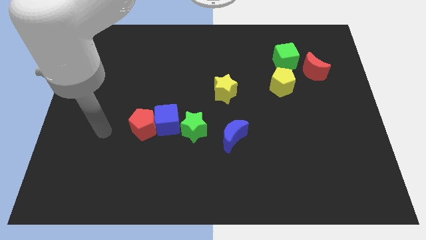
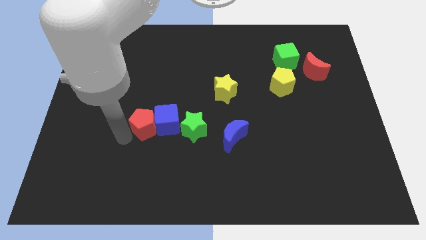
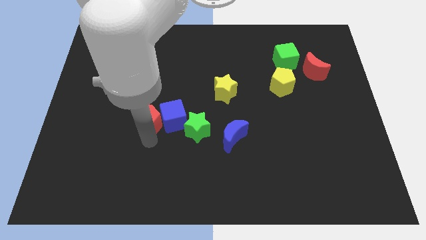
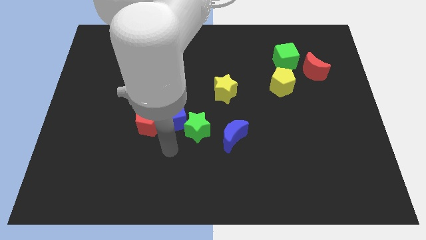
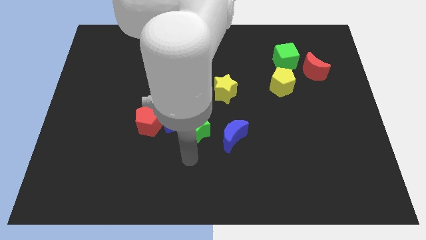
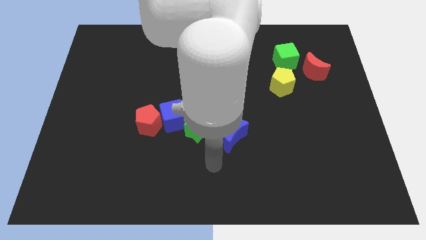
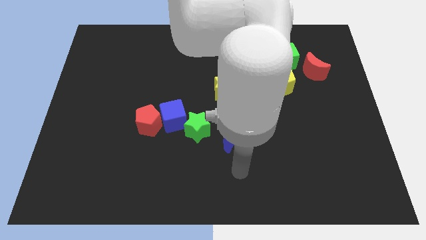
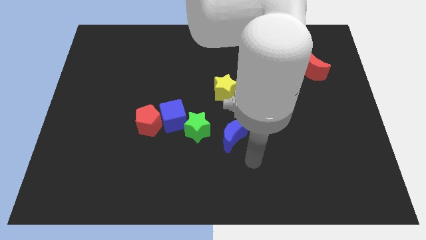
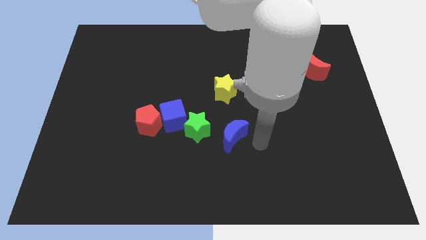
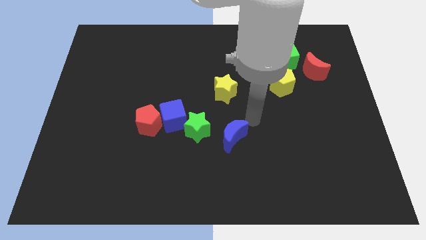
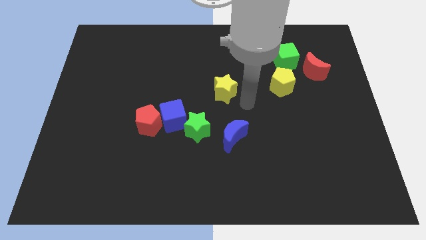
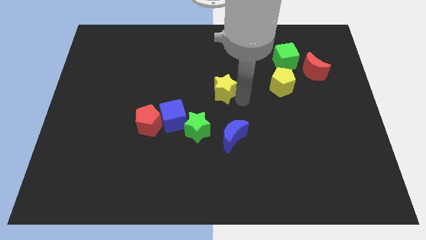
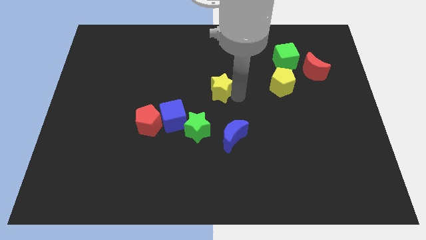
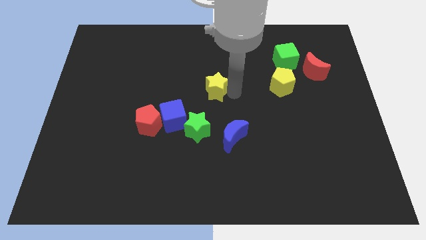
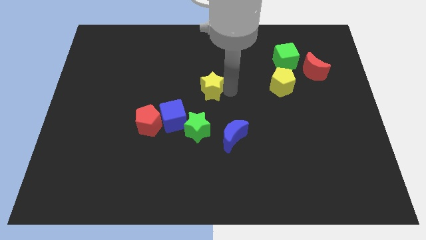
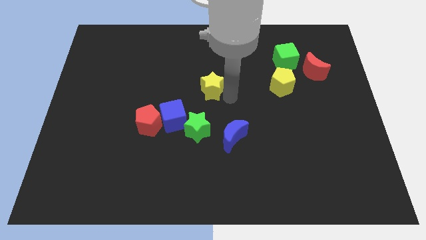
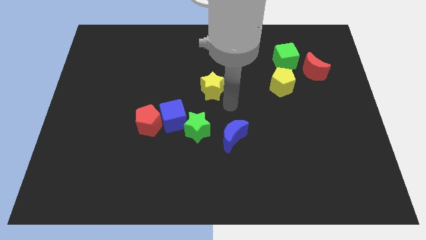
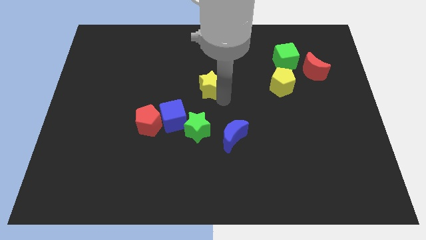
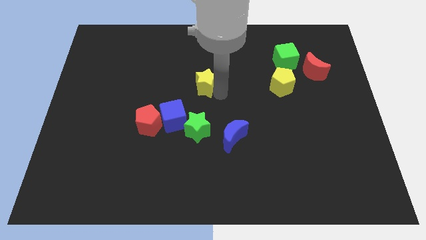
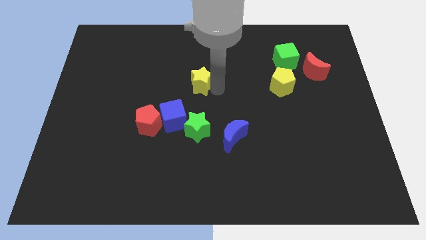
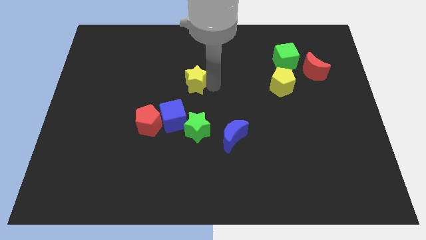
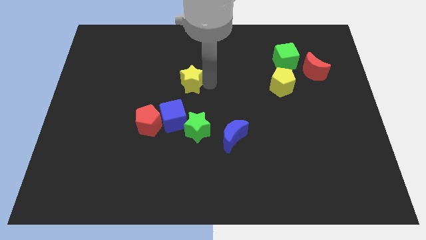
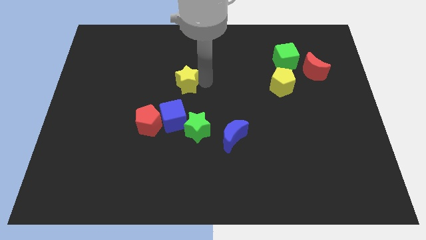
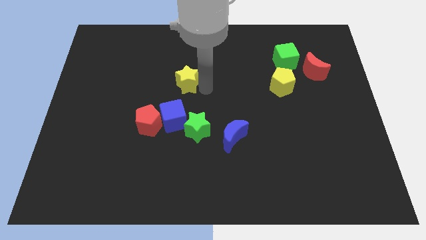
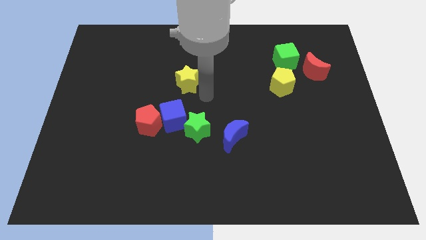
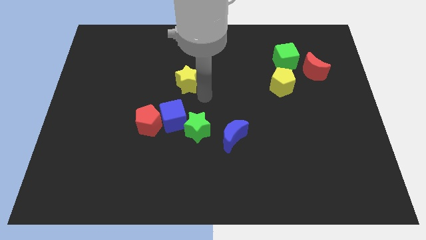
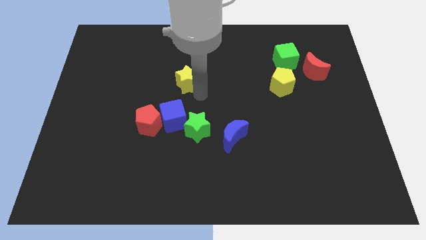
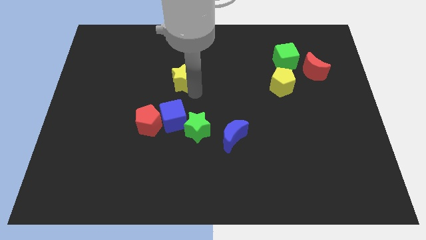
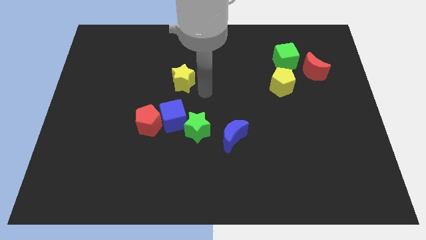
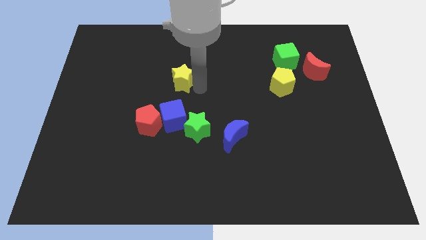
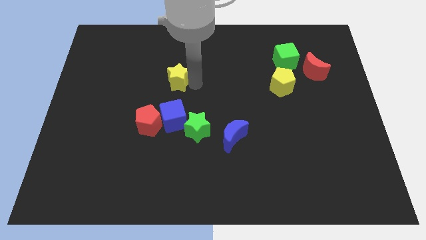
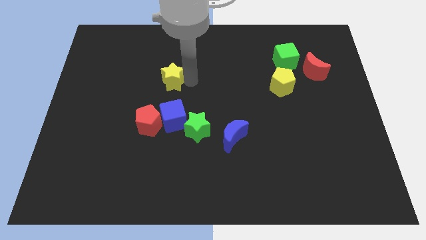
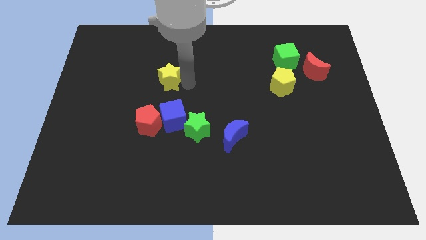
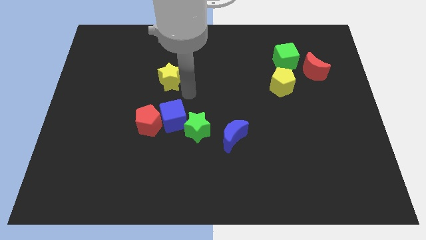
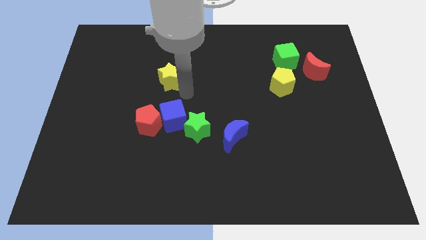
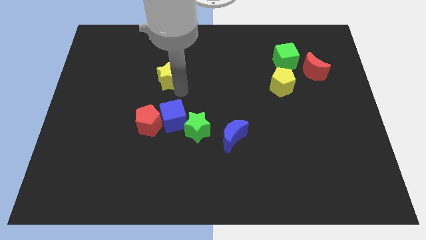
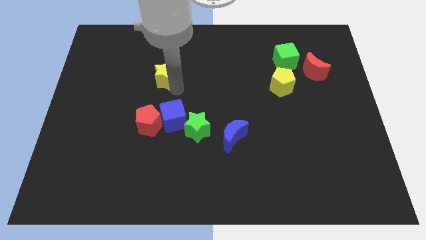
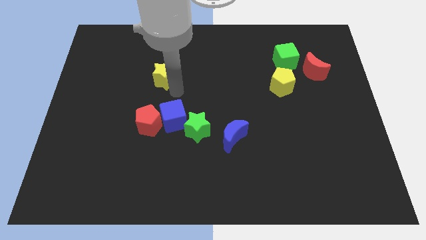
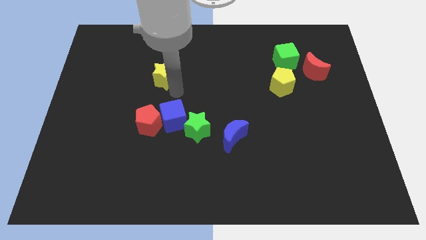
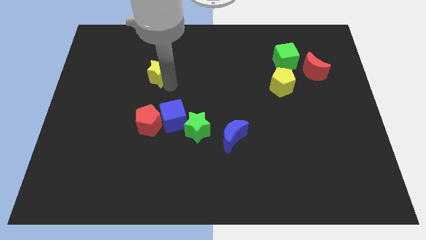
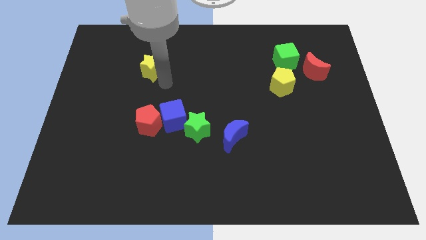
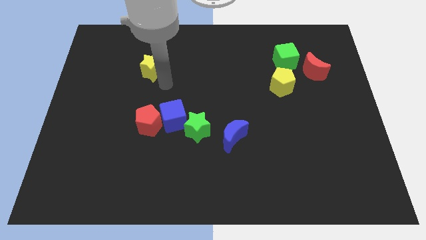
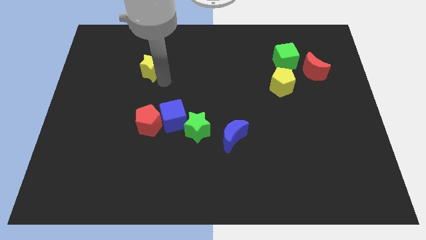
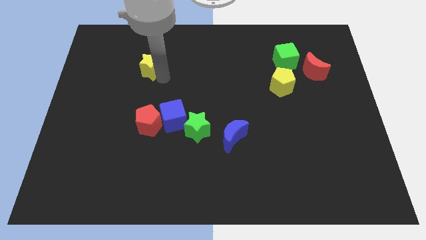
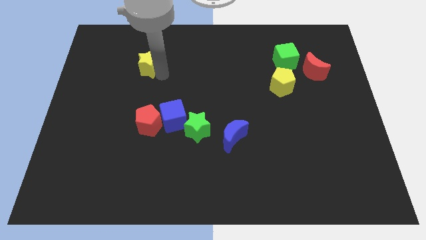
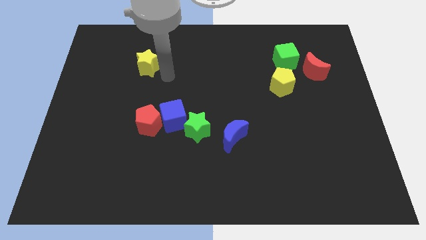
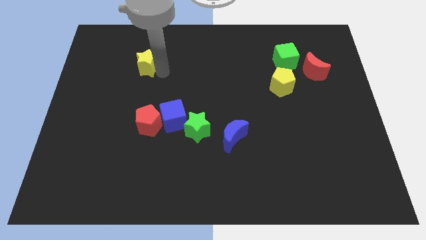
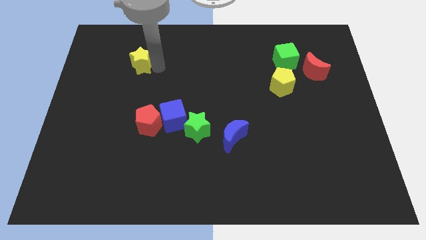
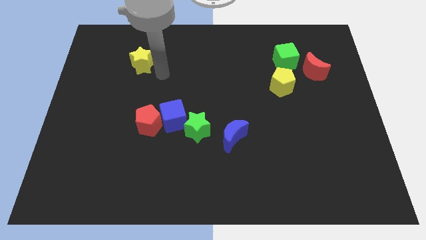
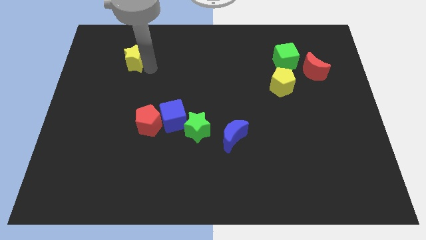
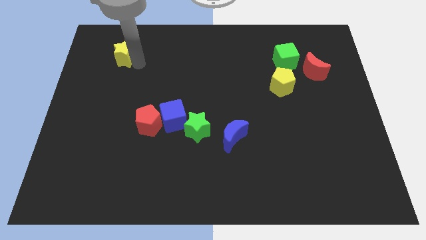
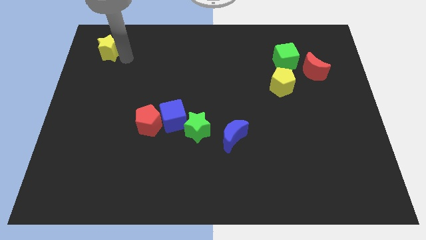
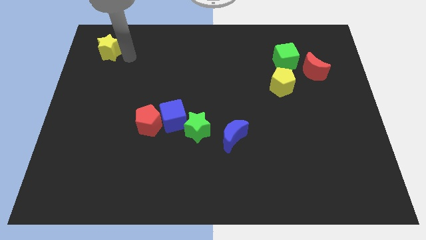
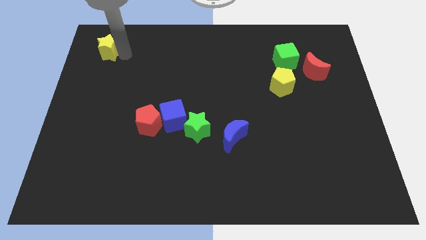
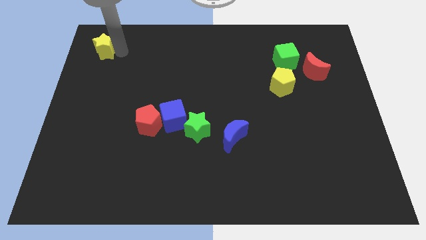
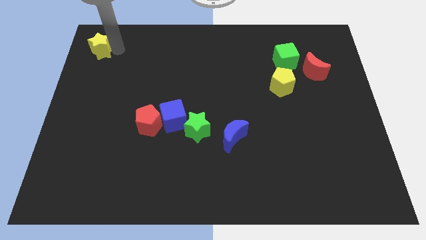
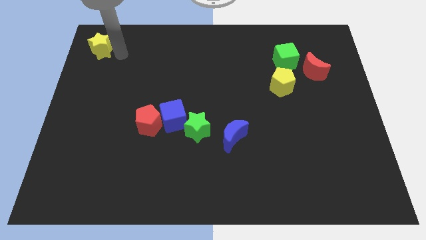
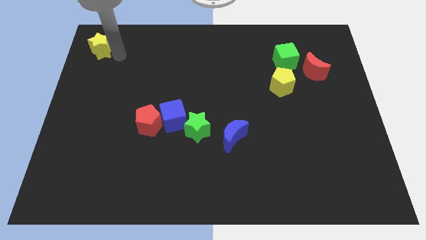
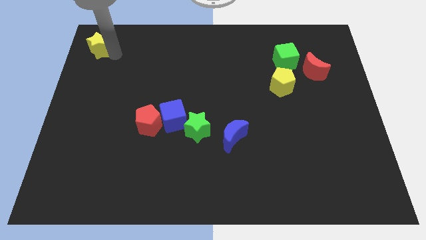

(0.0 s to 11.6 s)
put the yellow star to the top left

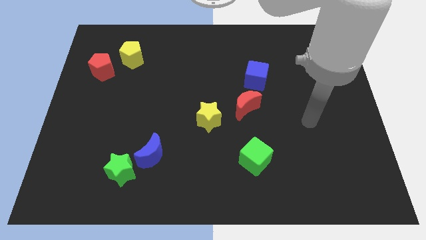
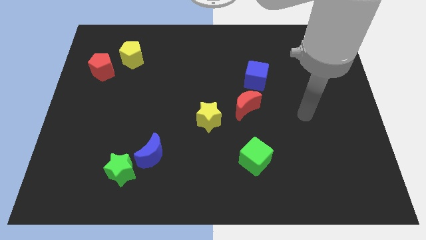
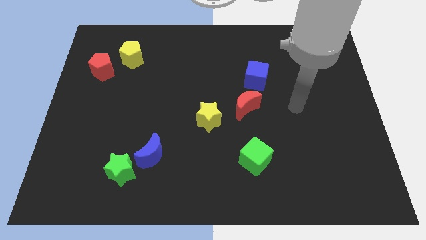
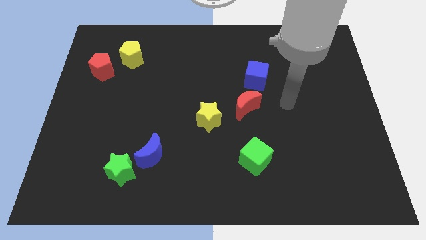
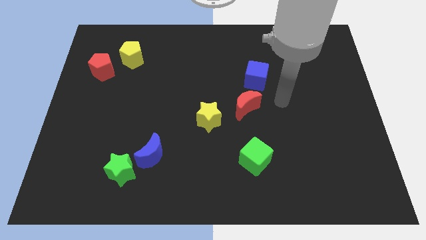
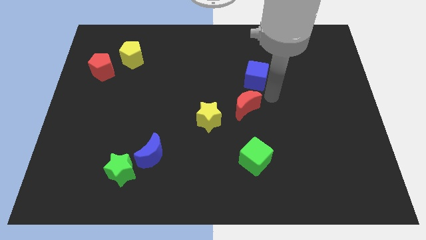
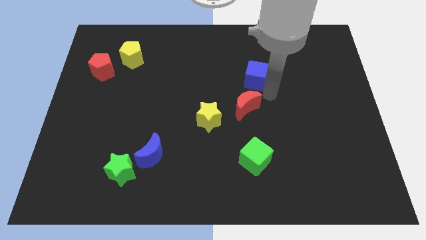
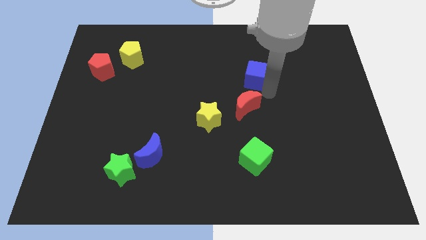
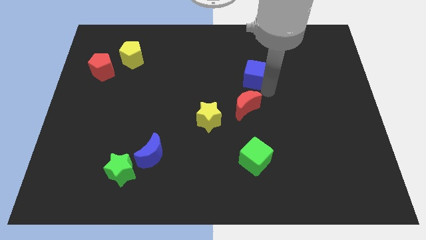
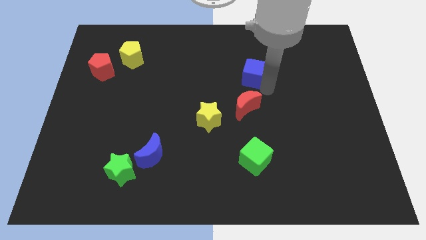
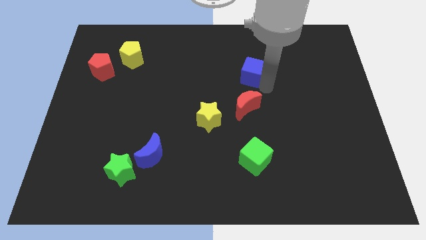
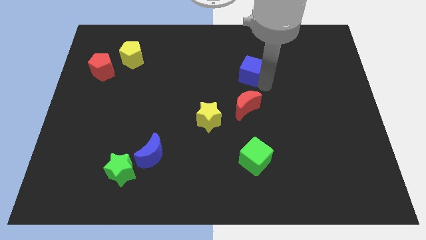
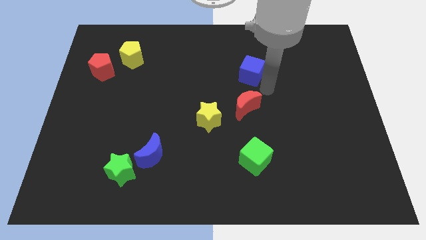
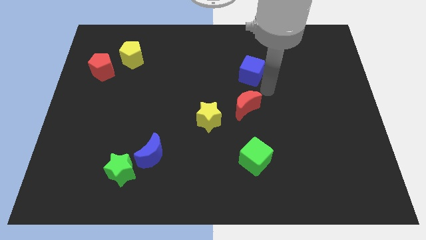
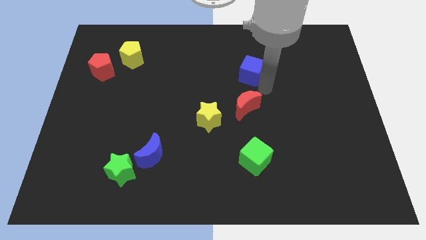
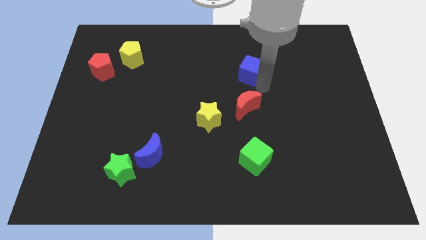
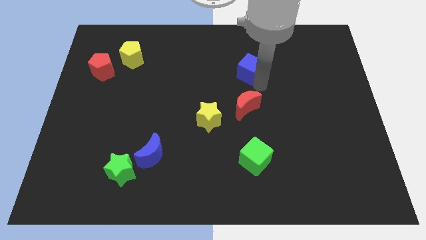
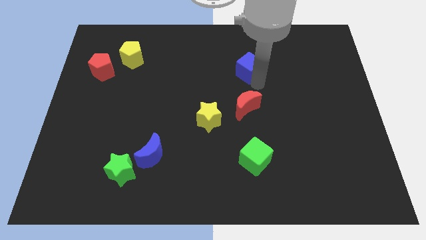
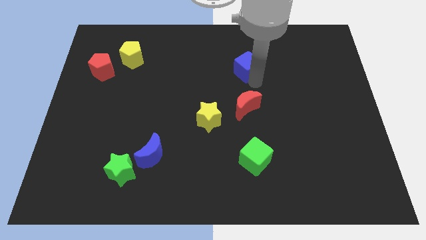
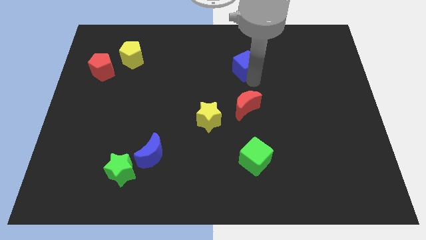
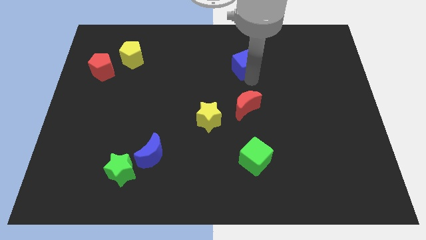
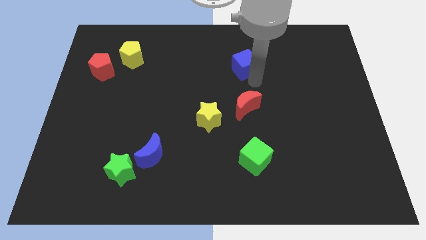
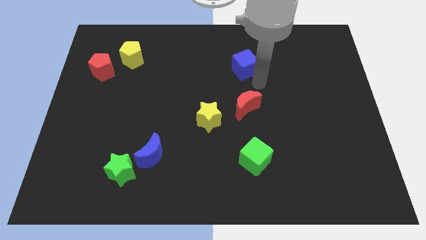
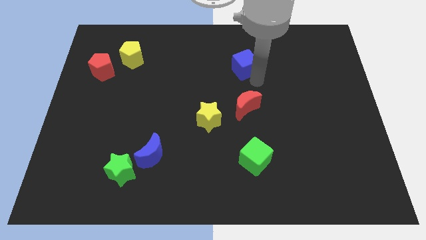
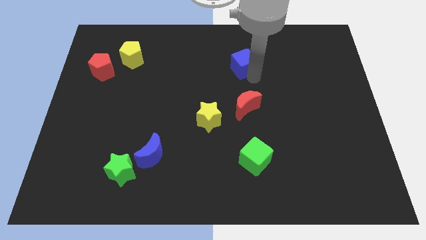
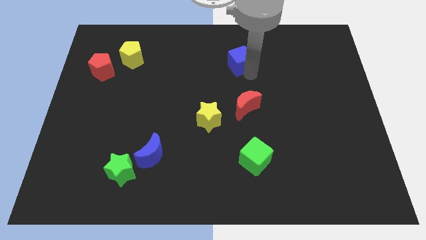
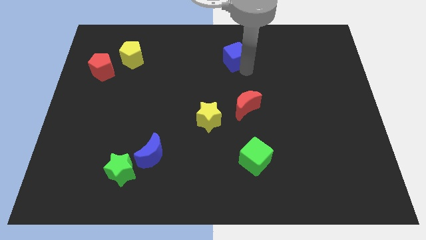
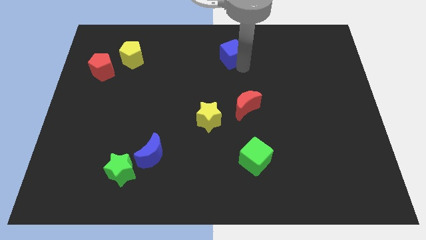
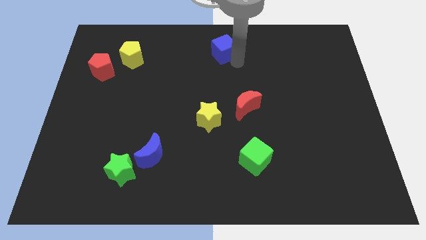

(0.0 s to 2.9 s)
slide the blue cube to the top
